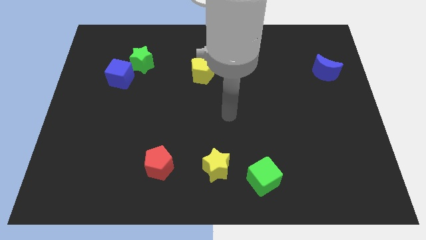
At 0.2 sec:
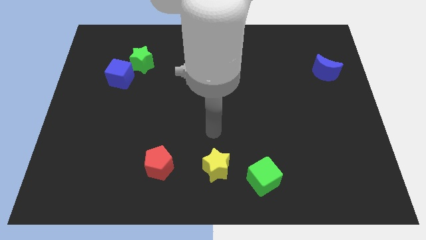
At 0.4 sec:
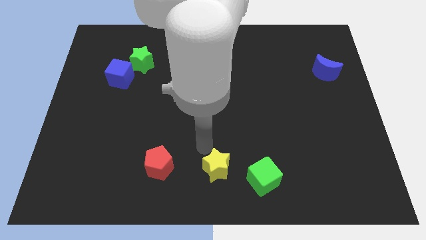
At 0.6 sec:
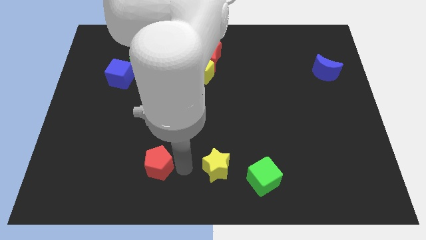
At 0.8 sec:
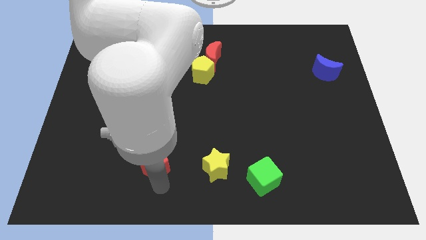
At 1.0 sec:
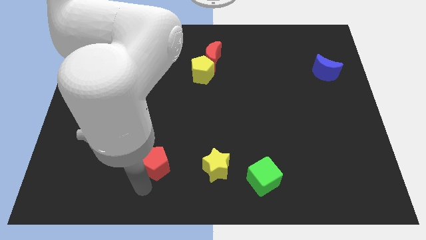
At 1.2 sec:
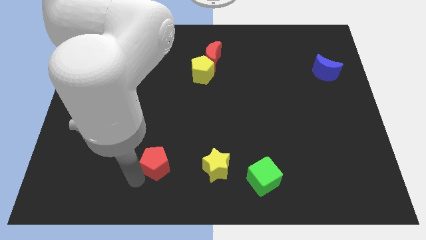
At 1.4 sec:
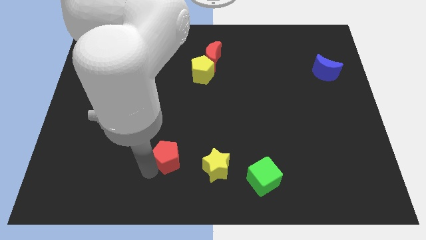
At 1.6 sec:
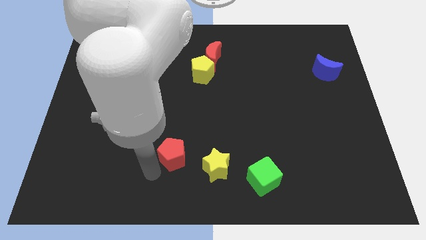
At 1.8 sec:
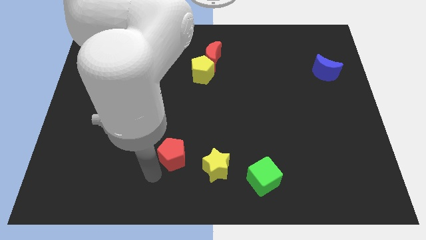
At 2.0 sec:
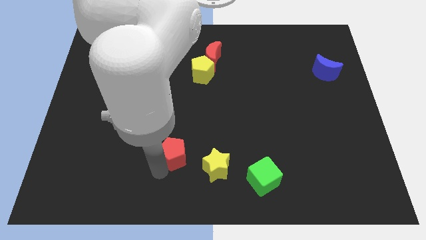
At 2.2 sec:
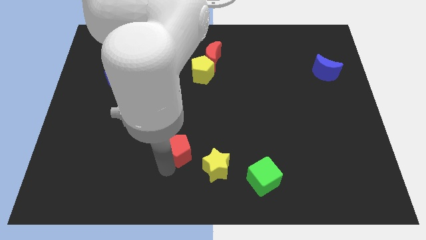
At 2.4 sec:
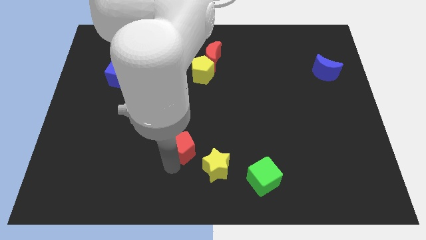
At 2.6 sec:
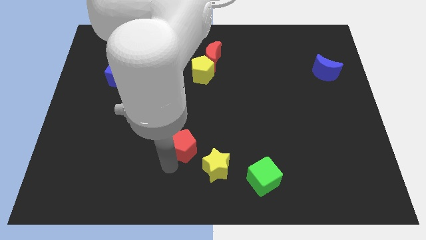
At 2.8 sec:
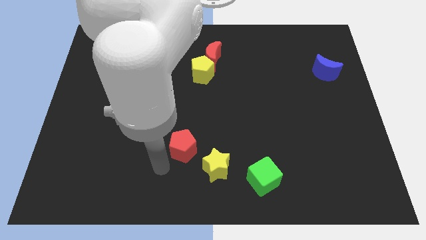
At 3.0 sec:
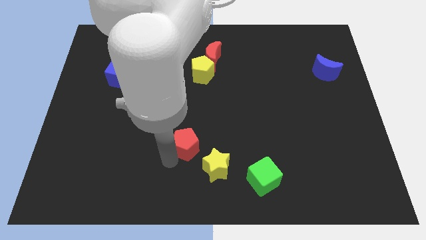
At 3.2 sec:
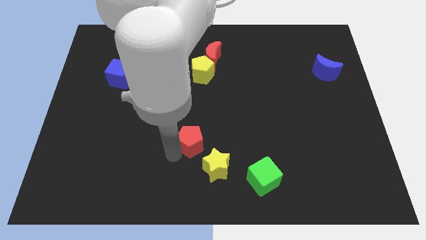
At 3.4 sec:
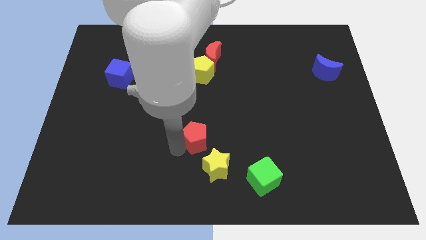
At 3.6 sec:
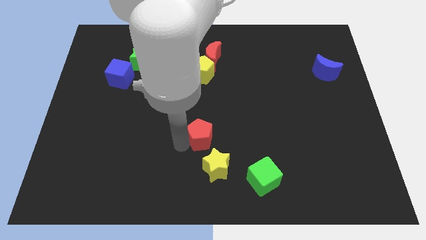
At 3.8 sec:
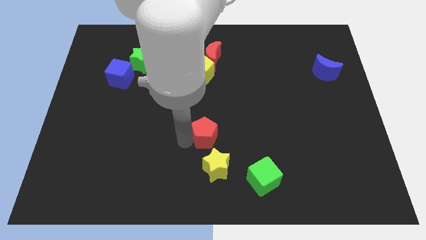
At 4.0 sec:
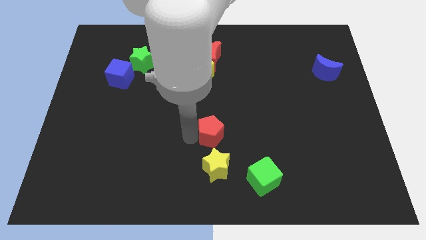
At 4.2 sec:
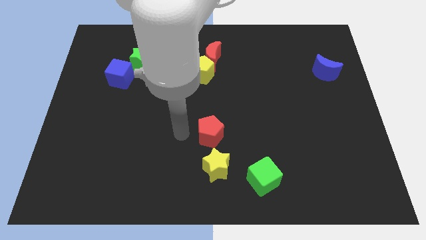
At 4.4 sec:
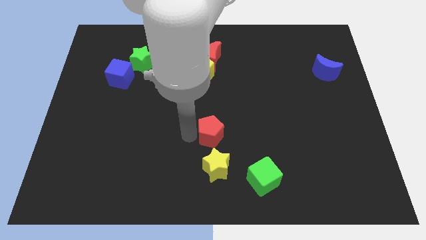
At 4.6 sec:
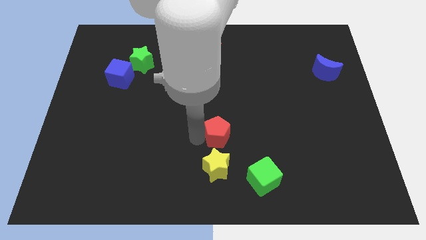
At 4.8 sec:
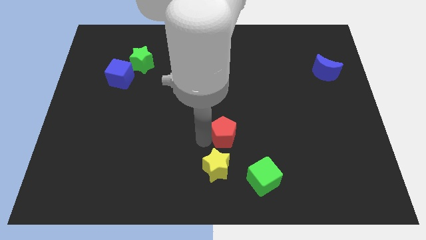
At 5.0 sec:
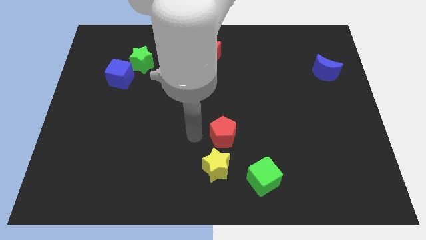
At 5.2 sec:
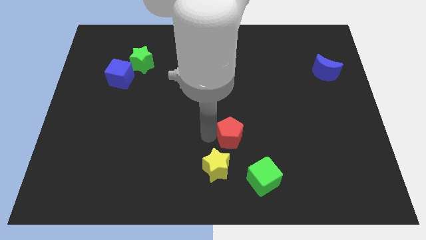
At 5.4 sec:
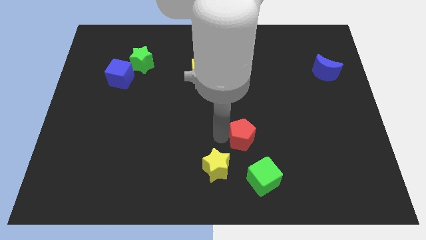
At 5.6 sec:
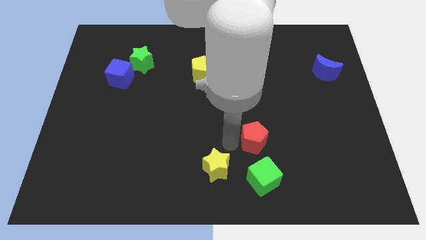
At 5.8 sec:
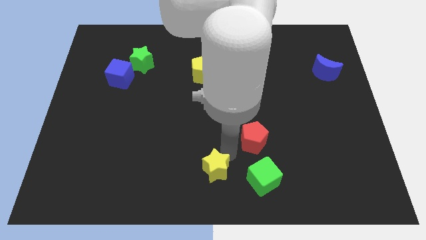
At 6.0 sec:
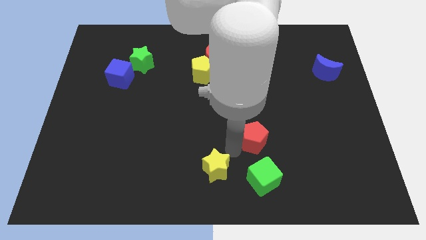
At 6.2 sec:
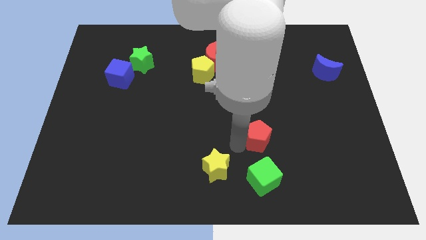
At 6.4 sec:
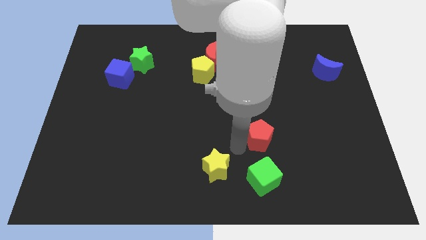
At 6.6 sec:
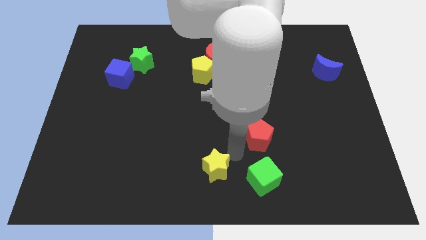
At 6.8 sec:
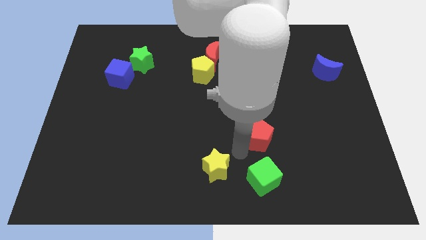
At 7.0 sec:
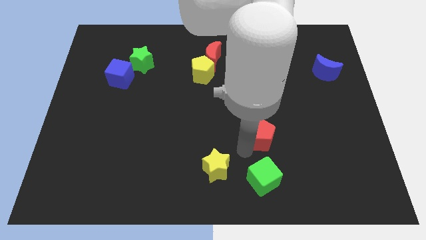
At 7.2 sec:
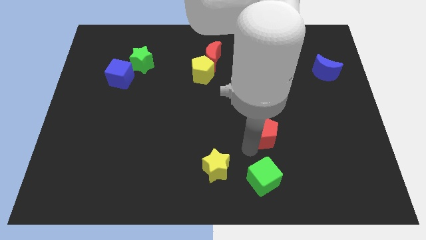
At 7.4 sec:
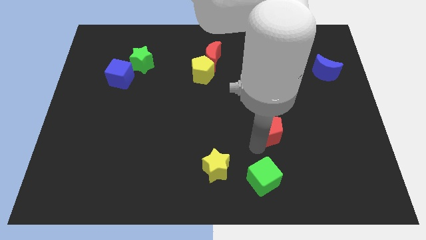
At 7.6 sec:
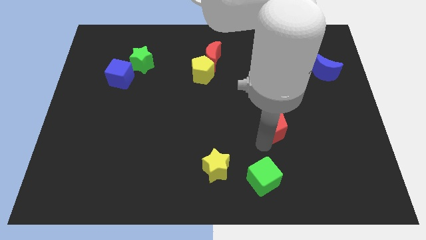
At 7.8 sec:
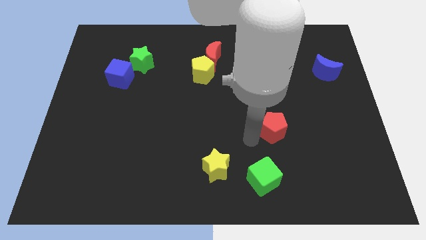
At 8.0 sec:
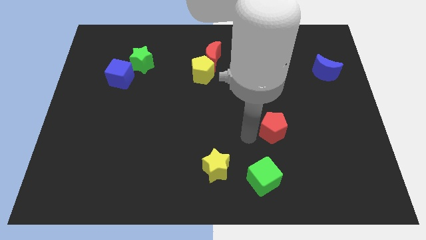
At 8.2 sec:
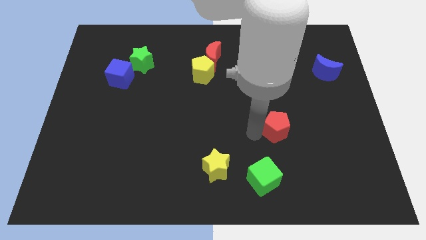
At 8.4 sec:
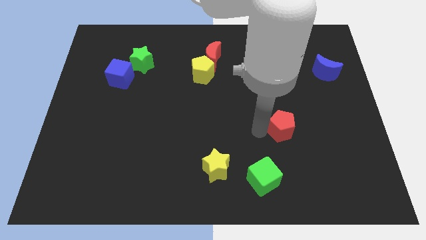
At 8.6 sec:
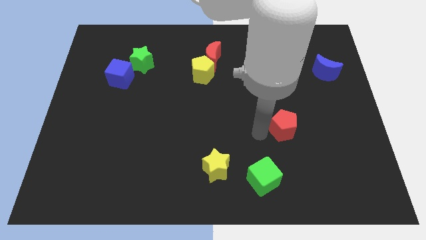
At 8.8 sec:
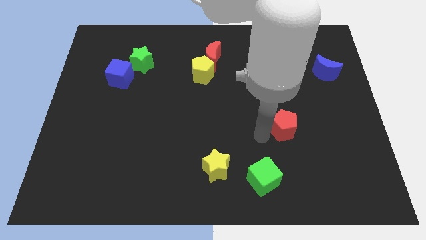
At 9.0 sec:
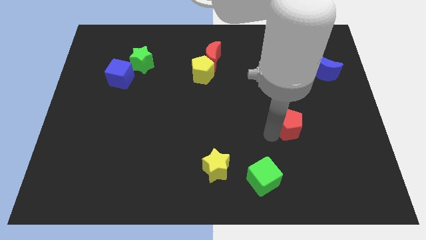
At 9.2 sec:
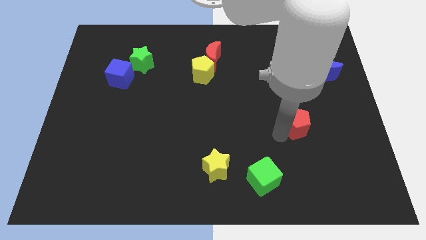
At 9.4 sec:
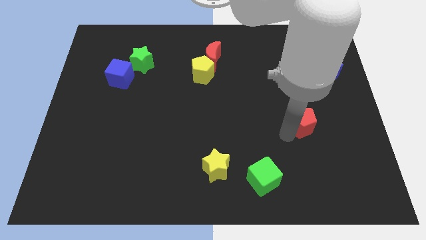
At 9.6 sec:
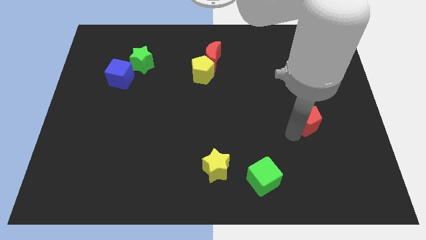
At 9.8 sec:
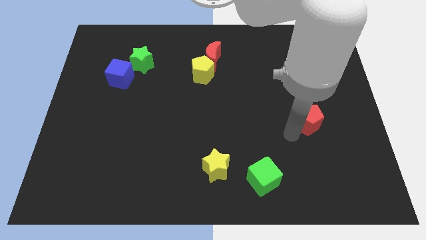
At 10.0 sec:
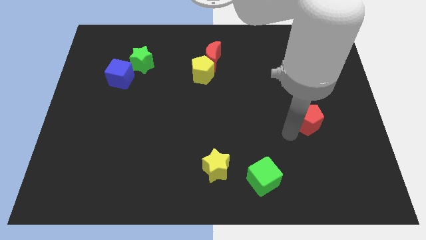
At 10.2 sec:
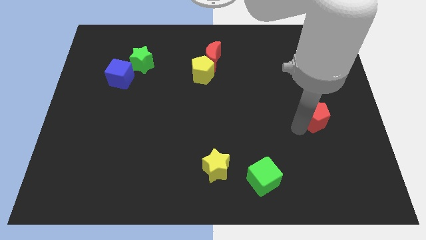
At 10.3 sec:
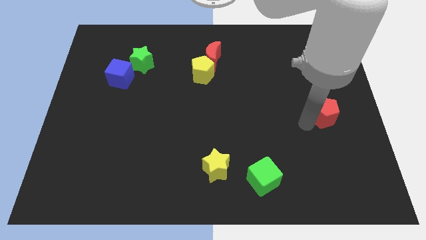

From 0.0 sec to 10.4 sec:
put the red pentagon to the right side of the board

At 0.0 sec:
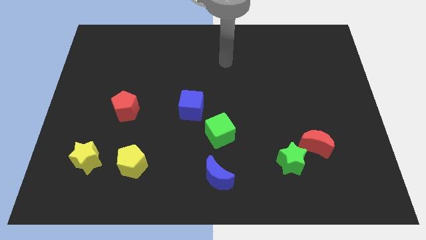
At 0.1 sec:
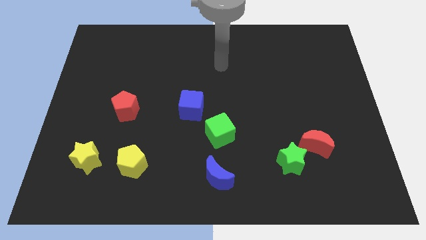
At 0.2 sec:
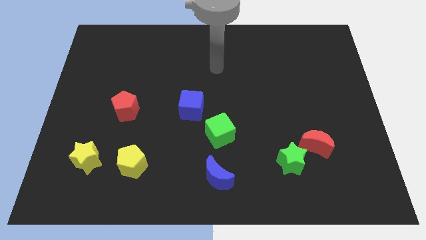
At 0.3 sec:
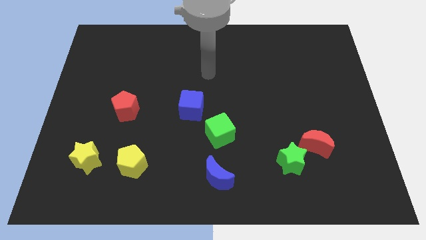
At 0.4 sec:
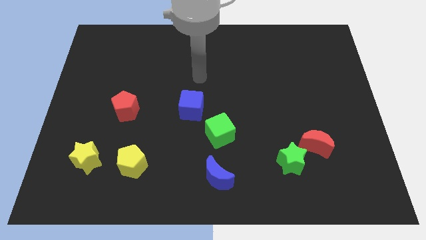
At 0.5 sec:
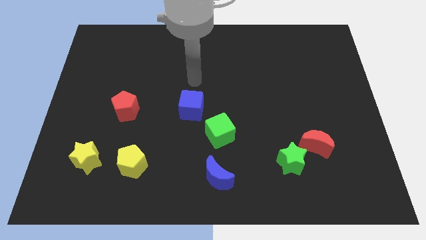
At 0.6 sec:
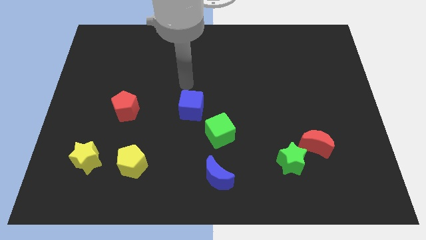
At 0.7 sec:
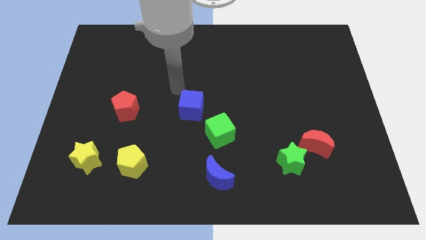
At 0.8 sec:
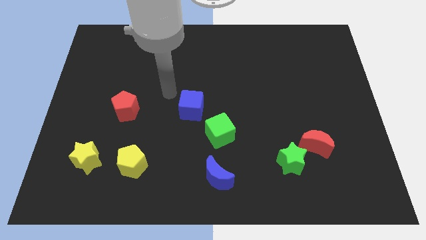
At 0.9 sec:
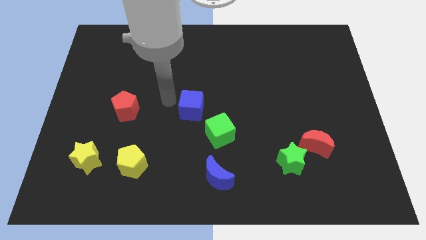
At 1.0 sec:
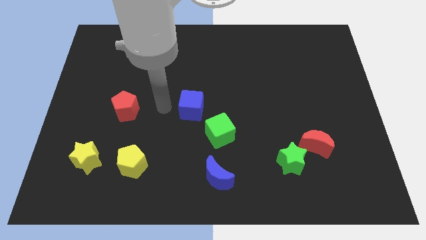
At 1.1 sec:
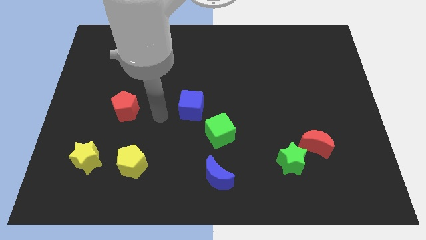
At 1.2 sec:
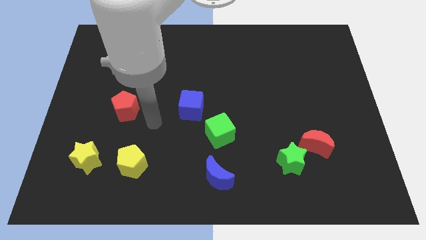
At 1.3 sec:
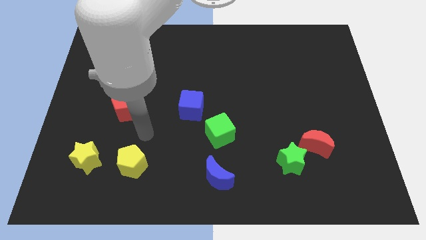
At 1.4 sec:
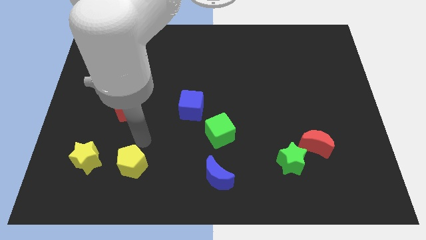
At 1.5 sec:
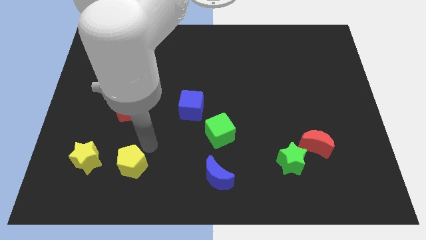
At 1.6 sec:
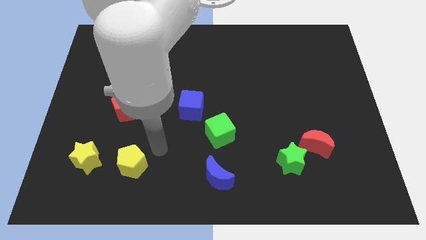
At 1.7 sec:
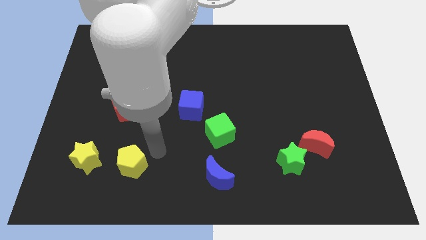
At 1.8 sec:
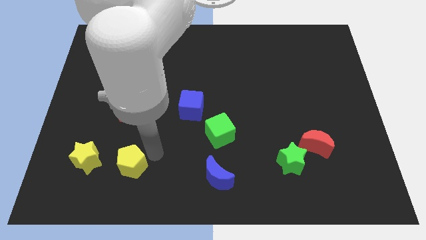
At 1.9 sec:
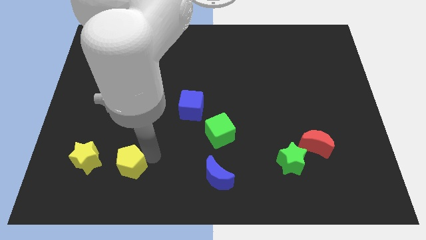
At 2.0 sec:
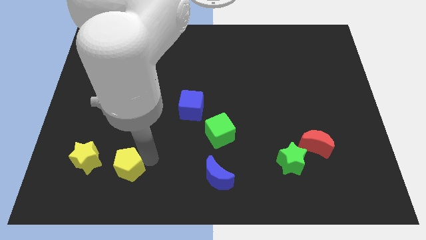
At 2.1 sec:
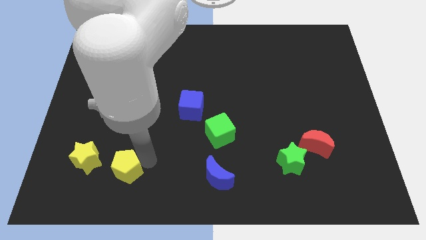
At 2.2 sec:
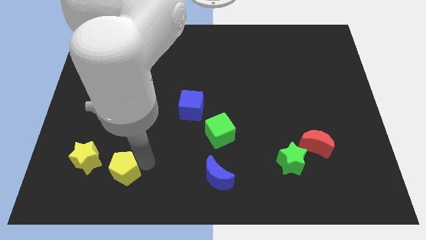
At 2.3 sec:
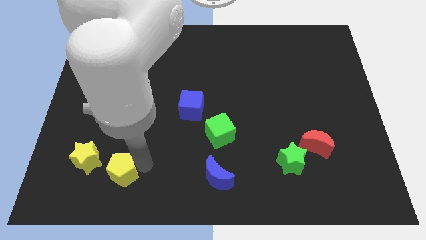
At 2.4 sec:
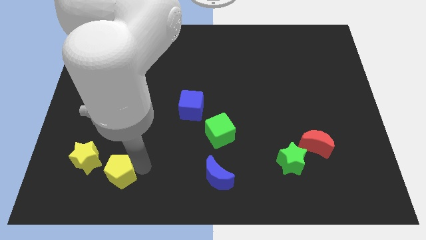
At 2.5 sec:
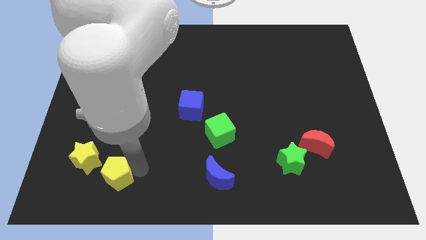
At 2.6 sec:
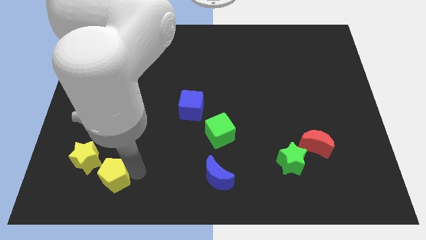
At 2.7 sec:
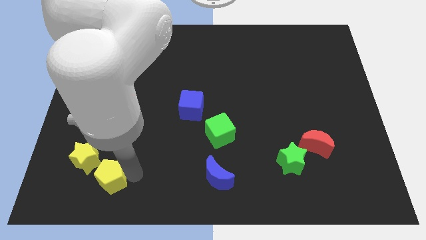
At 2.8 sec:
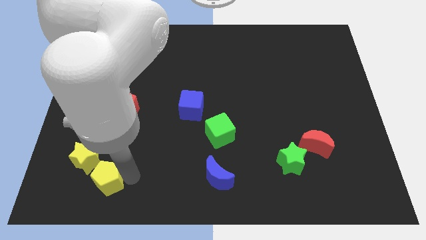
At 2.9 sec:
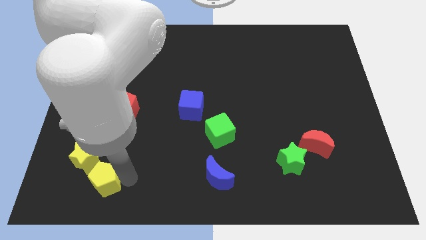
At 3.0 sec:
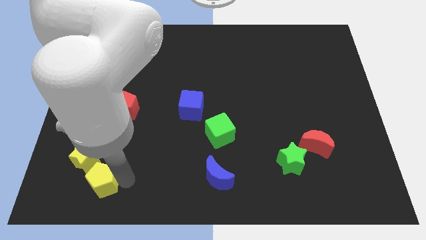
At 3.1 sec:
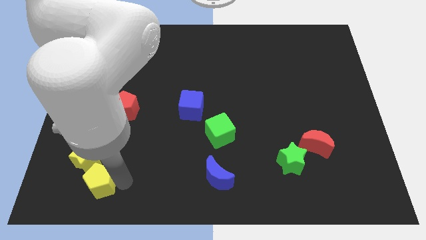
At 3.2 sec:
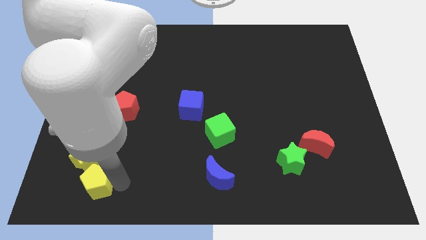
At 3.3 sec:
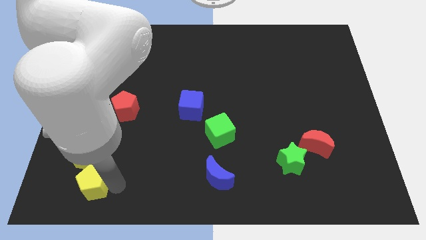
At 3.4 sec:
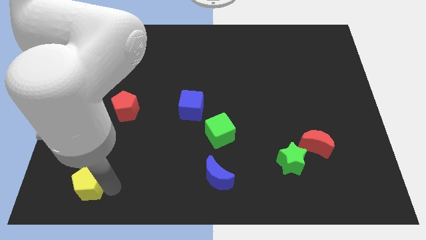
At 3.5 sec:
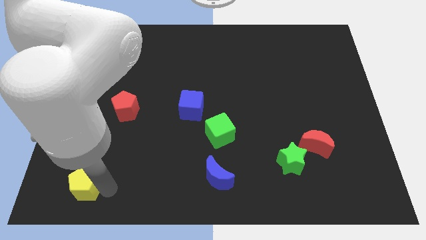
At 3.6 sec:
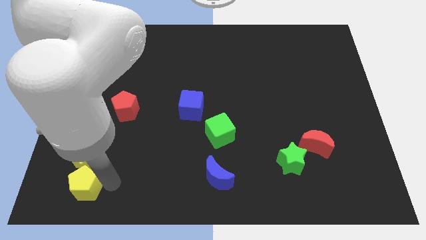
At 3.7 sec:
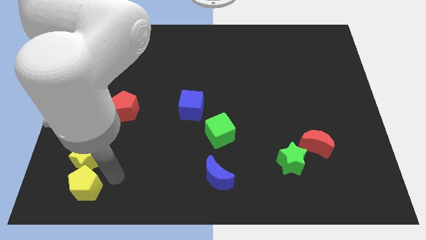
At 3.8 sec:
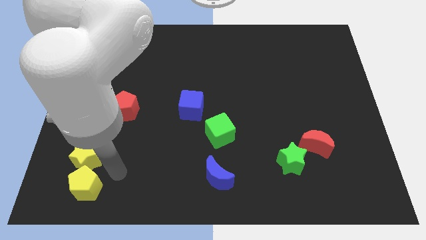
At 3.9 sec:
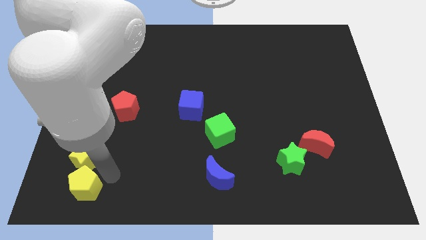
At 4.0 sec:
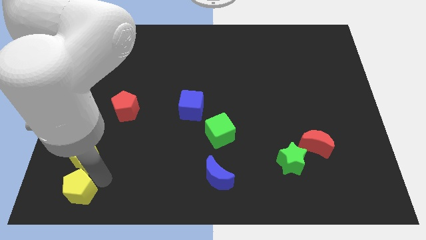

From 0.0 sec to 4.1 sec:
push the yellow pentagon to the bottom left of the board
